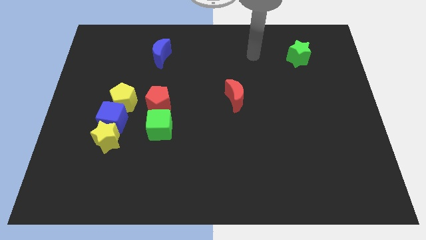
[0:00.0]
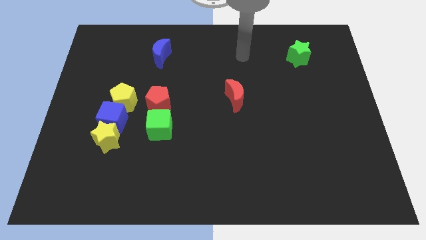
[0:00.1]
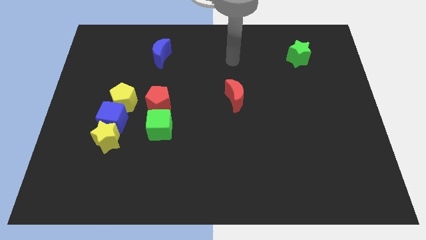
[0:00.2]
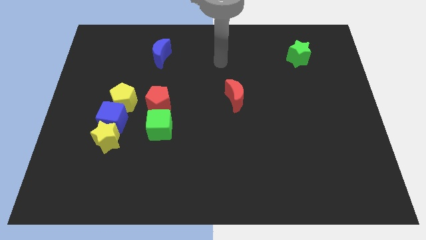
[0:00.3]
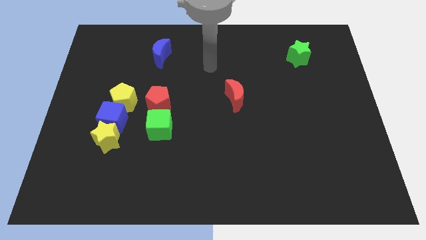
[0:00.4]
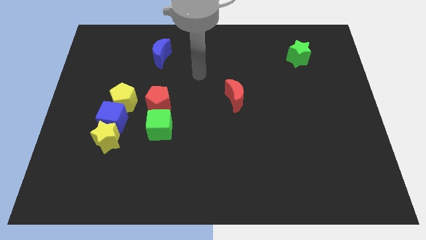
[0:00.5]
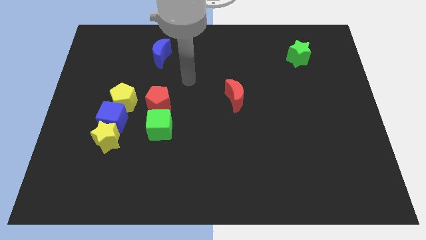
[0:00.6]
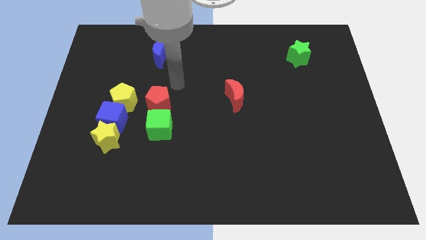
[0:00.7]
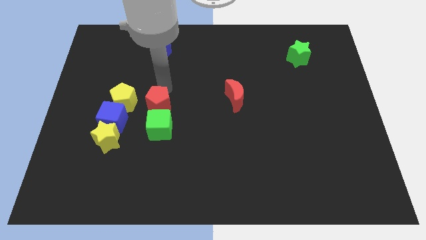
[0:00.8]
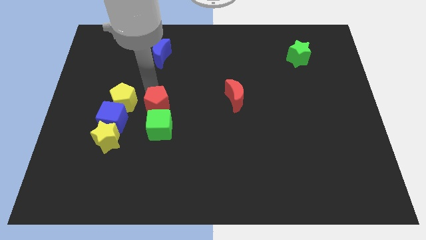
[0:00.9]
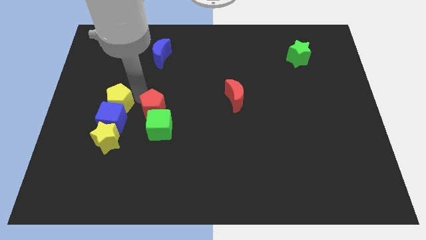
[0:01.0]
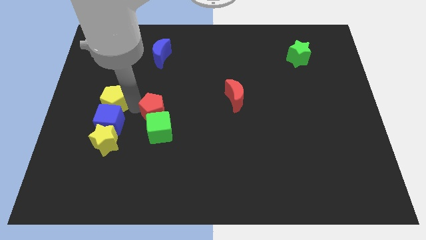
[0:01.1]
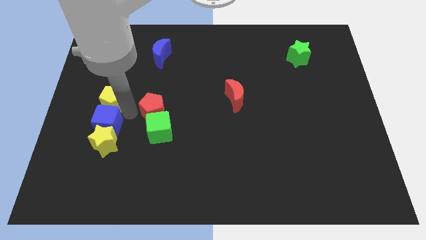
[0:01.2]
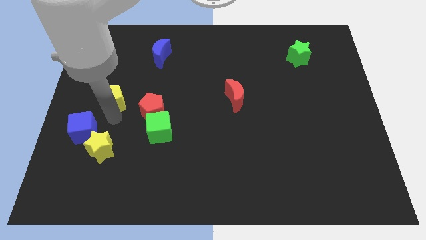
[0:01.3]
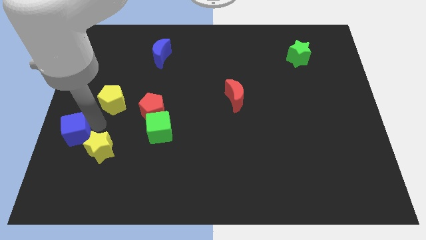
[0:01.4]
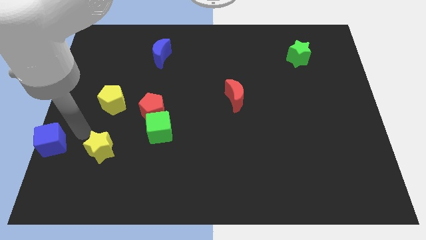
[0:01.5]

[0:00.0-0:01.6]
separate the yellow star from the blue cube

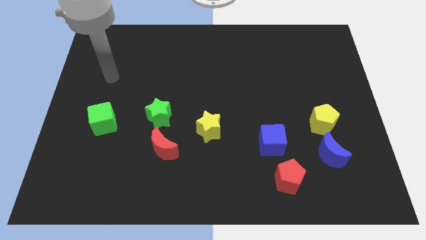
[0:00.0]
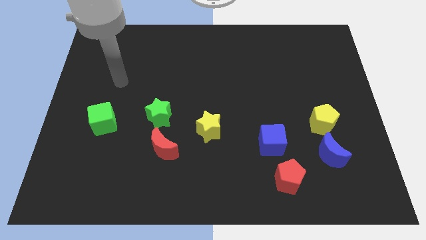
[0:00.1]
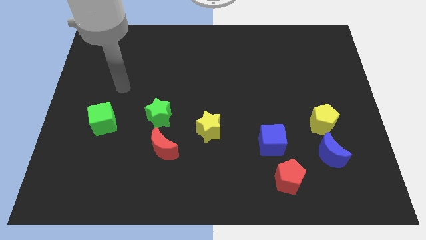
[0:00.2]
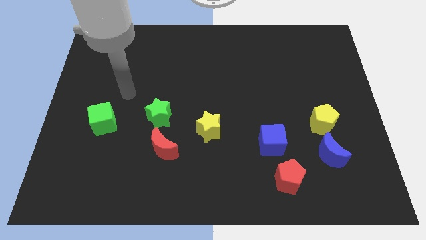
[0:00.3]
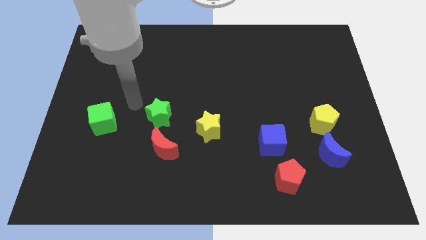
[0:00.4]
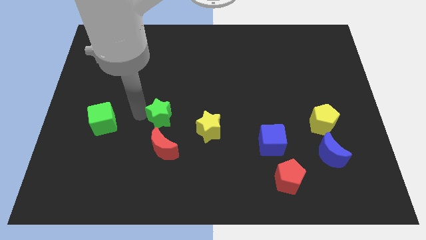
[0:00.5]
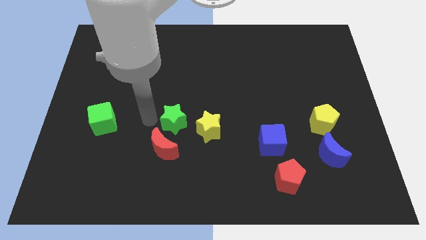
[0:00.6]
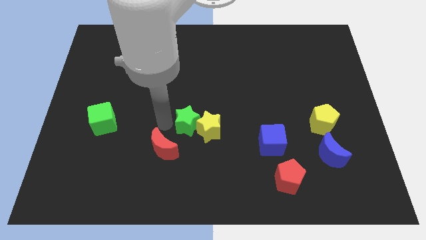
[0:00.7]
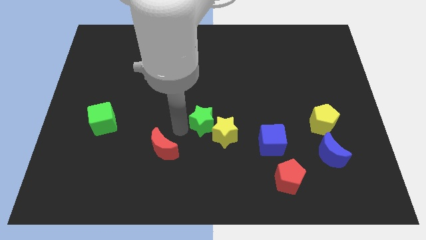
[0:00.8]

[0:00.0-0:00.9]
move the red moon away from the green star

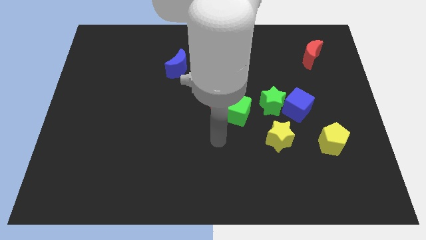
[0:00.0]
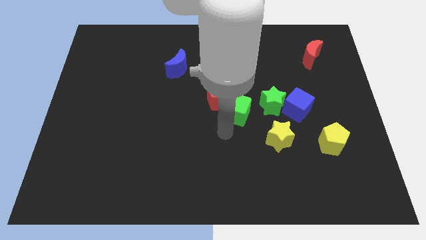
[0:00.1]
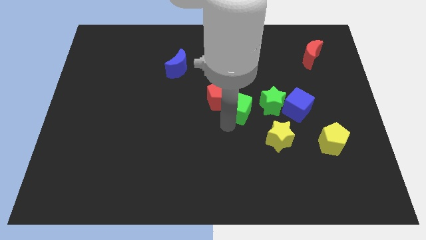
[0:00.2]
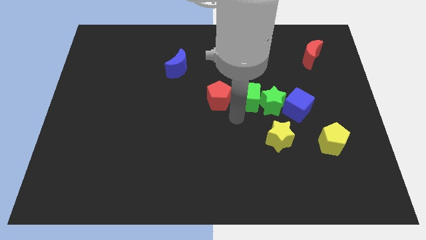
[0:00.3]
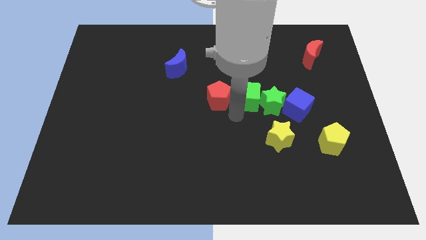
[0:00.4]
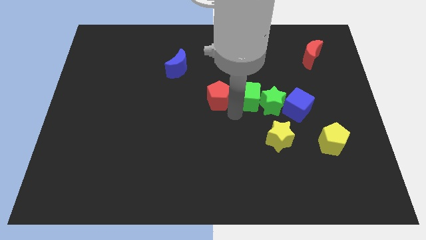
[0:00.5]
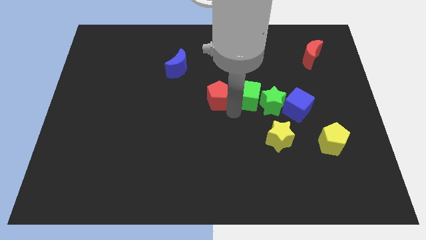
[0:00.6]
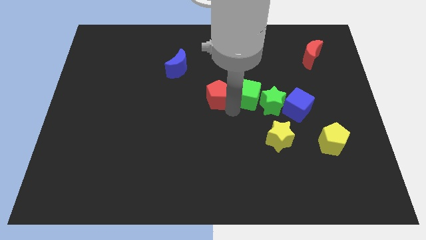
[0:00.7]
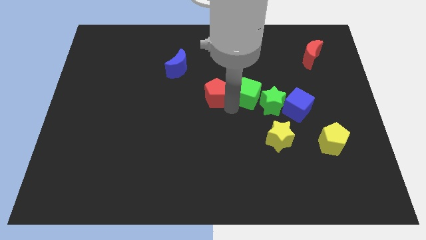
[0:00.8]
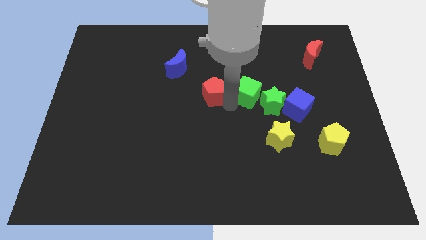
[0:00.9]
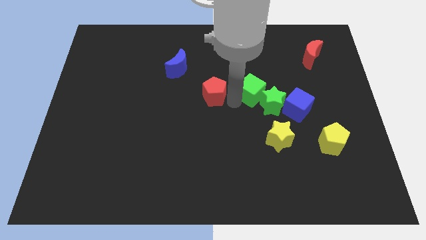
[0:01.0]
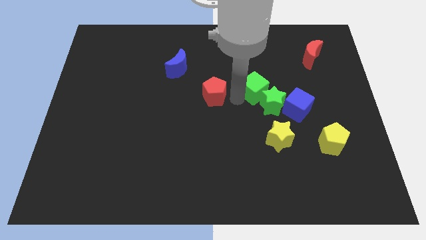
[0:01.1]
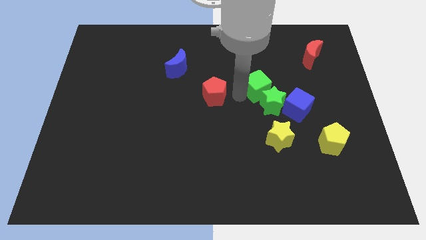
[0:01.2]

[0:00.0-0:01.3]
separate the red pentagon from the green cube

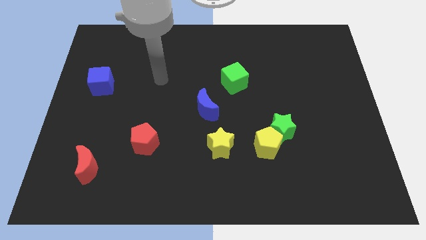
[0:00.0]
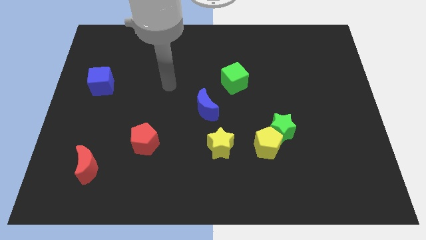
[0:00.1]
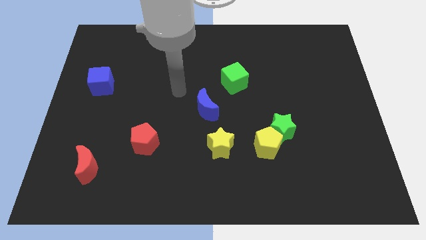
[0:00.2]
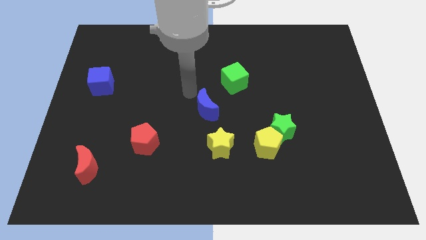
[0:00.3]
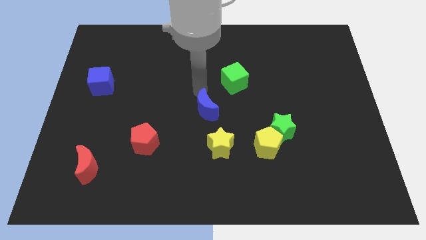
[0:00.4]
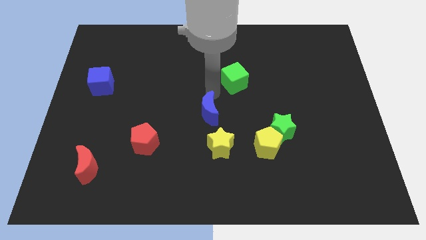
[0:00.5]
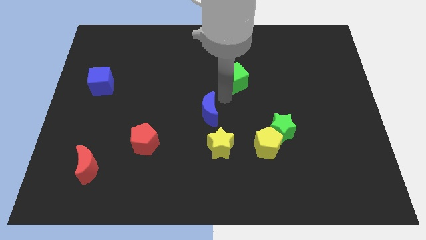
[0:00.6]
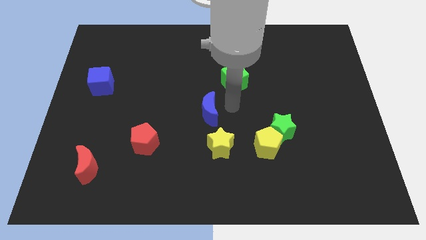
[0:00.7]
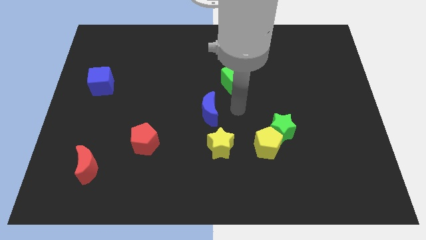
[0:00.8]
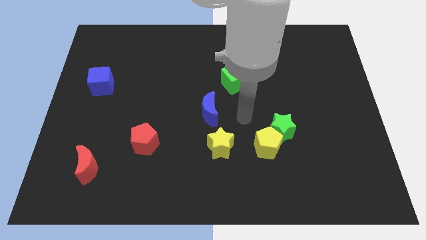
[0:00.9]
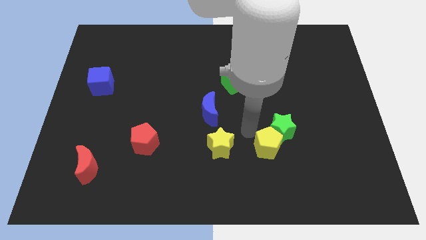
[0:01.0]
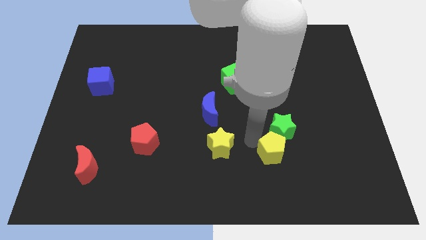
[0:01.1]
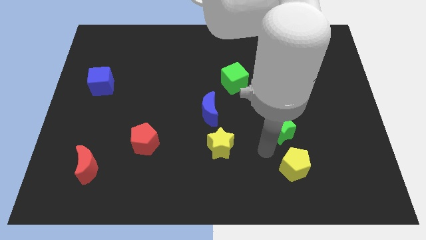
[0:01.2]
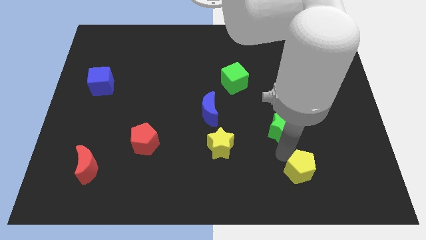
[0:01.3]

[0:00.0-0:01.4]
move the green star away from the yellow pentagon

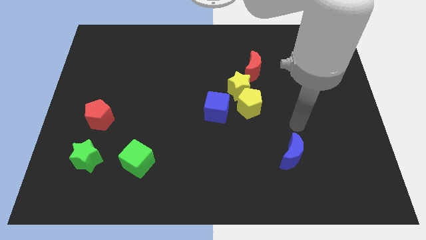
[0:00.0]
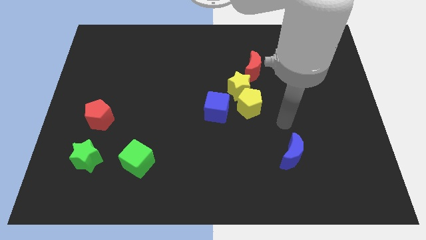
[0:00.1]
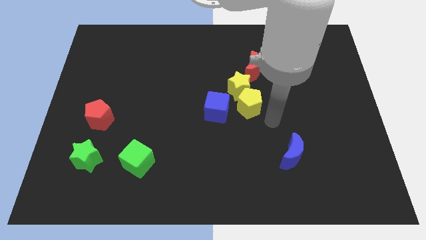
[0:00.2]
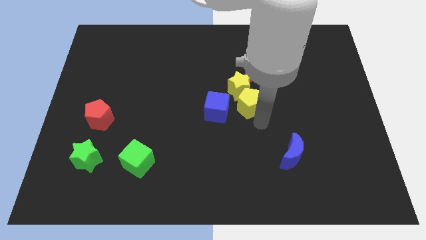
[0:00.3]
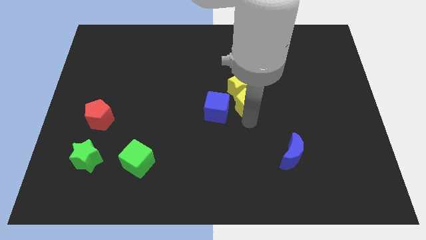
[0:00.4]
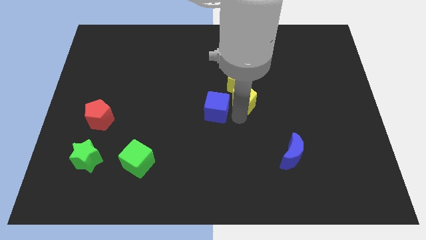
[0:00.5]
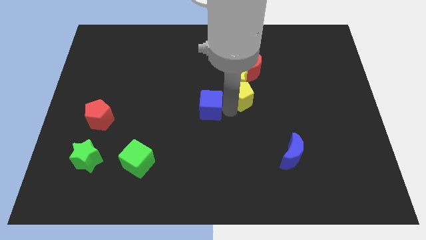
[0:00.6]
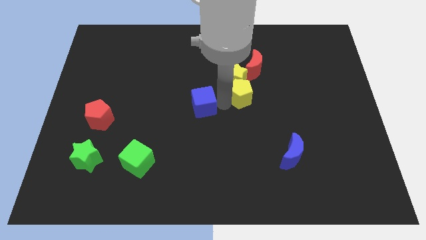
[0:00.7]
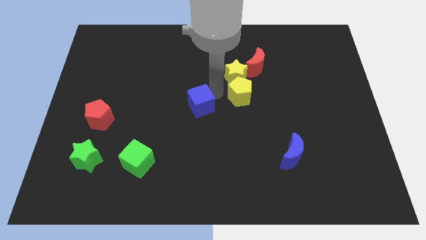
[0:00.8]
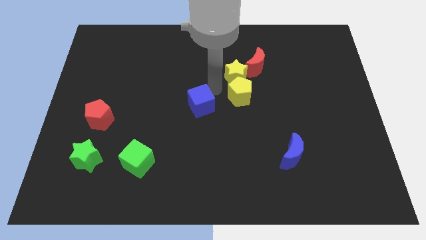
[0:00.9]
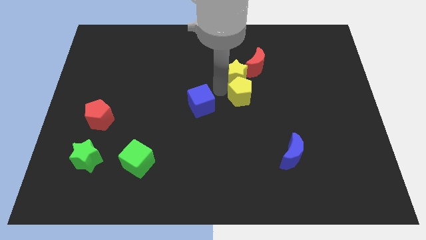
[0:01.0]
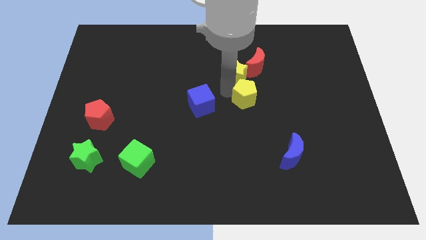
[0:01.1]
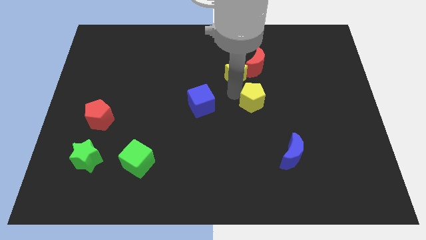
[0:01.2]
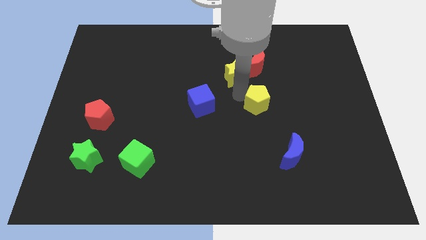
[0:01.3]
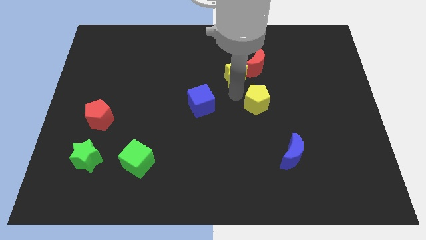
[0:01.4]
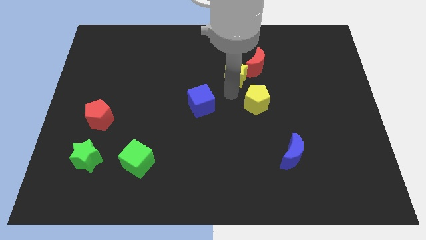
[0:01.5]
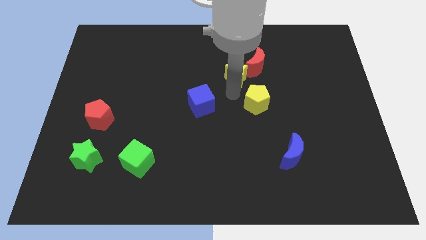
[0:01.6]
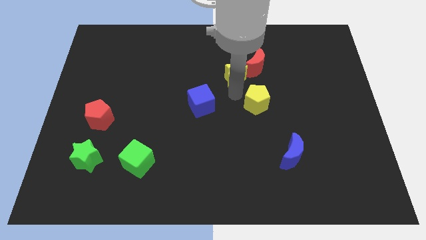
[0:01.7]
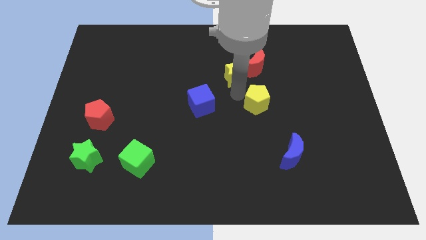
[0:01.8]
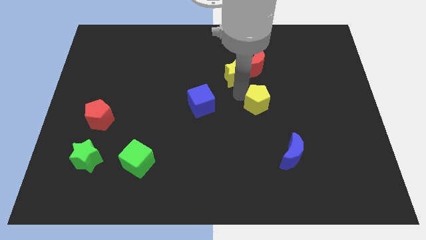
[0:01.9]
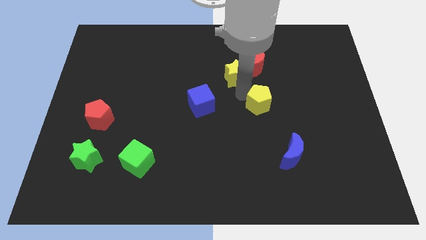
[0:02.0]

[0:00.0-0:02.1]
pull the yellow pentagon apart from the yellow star and blue cube

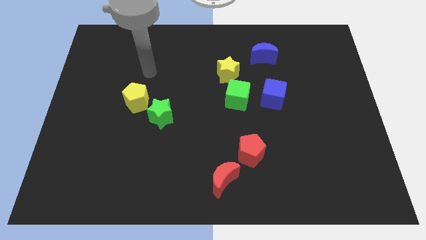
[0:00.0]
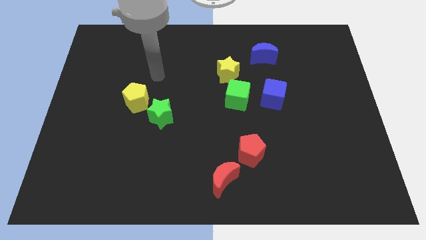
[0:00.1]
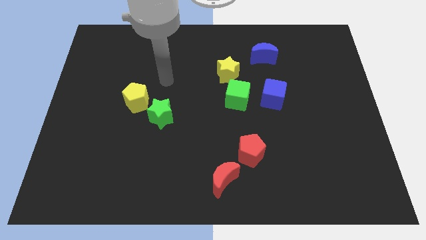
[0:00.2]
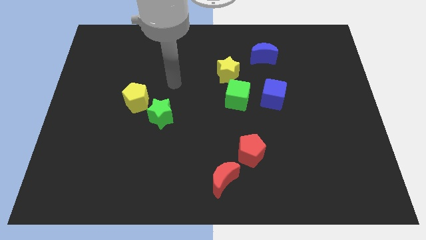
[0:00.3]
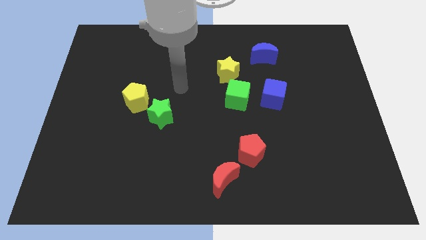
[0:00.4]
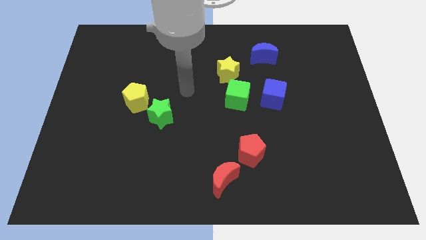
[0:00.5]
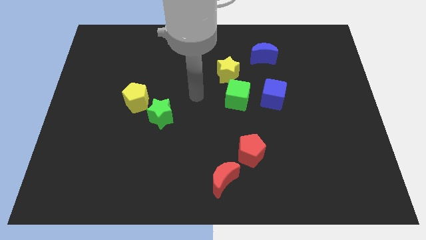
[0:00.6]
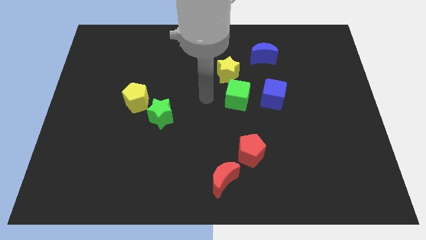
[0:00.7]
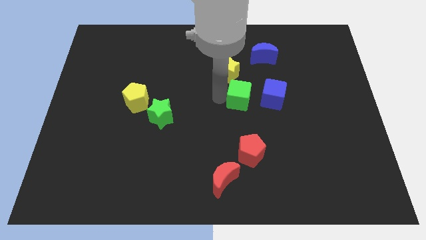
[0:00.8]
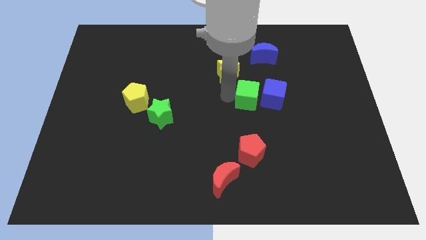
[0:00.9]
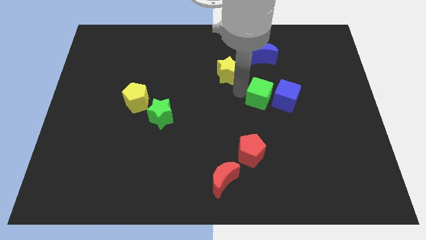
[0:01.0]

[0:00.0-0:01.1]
separate the yellow star from the green cube

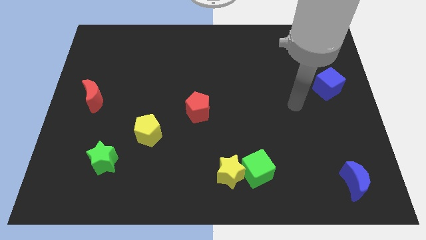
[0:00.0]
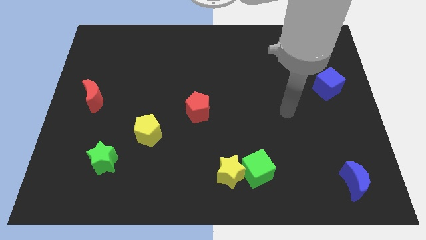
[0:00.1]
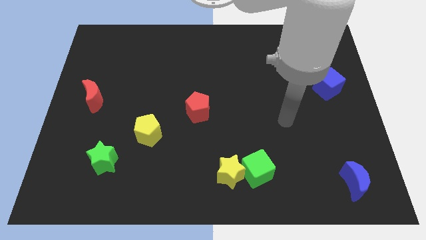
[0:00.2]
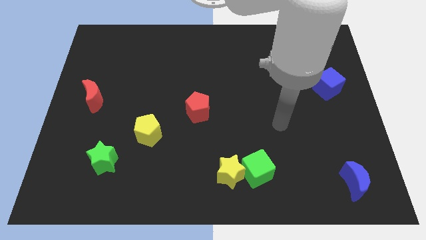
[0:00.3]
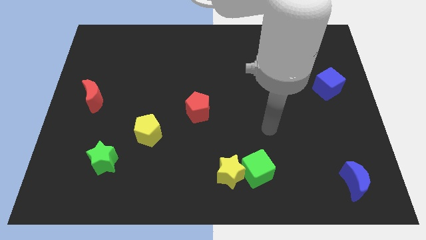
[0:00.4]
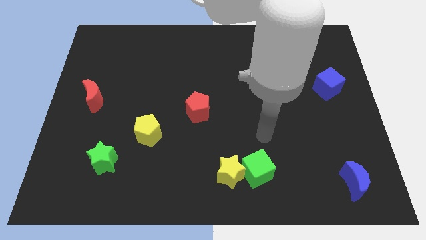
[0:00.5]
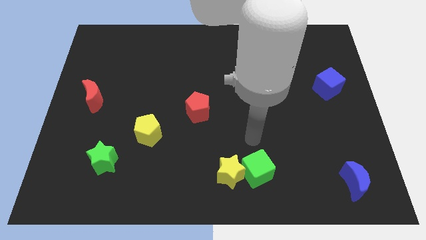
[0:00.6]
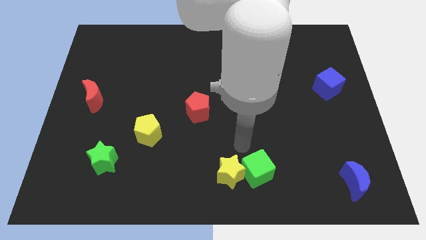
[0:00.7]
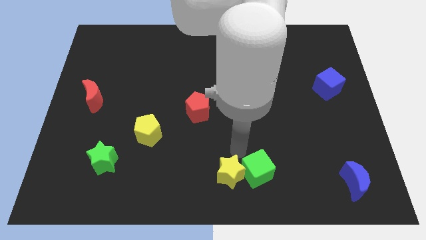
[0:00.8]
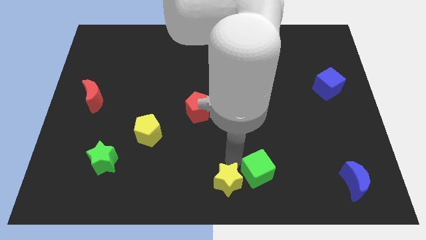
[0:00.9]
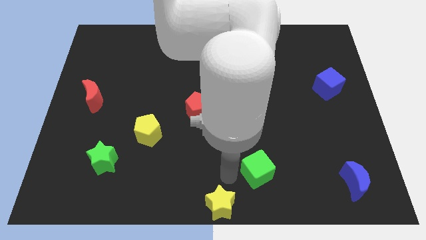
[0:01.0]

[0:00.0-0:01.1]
separate the green cube from the yellow star
